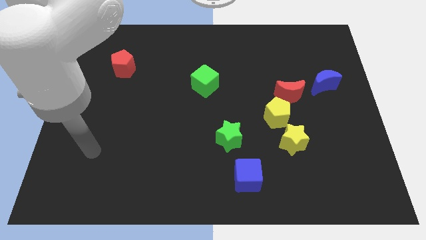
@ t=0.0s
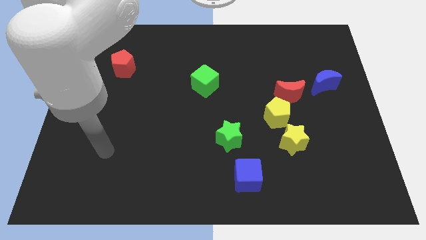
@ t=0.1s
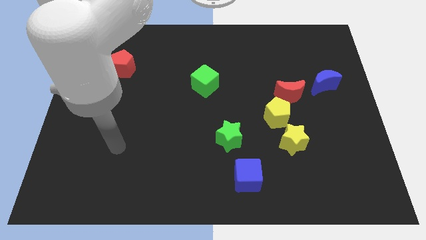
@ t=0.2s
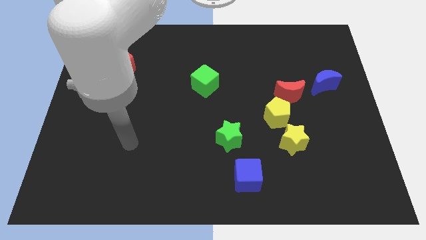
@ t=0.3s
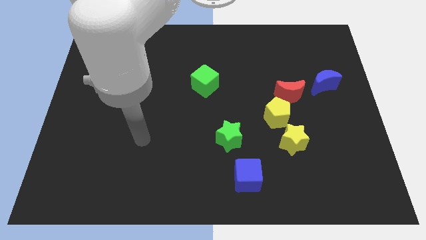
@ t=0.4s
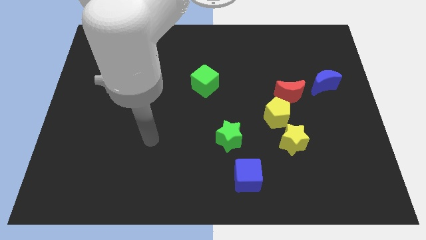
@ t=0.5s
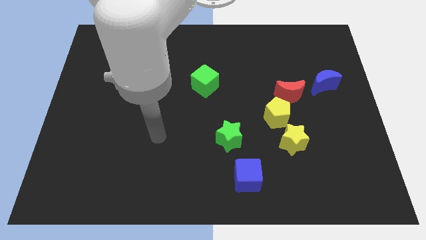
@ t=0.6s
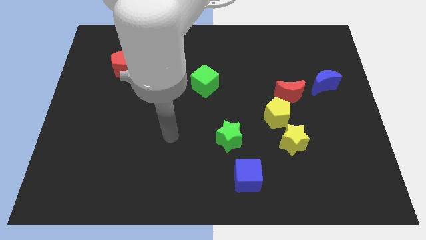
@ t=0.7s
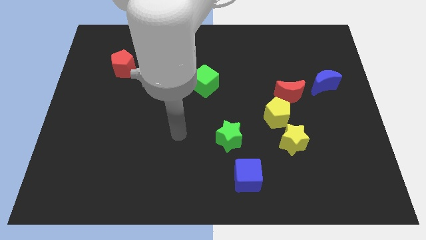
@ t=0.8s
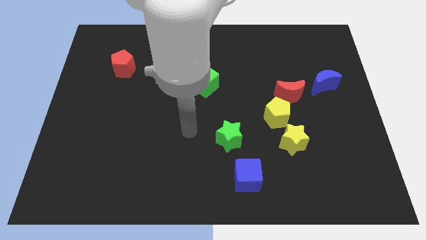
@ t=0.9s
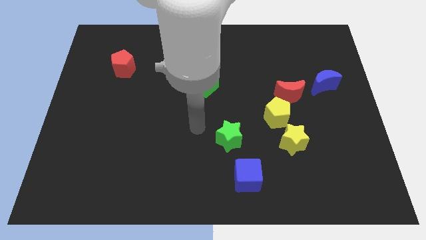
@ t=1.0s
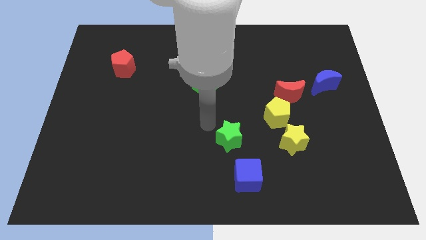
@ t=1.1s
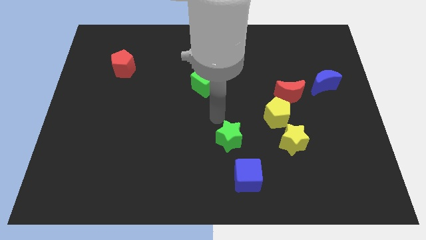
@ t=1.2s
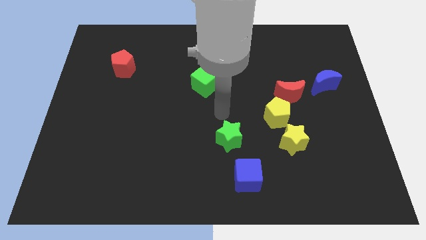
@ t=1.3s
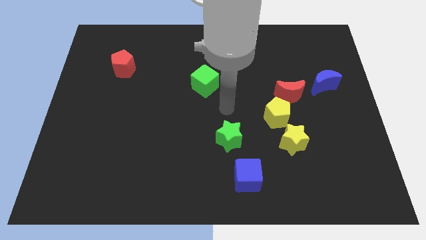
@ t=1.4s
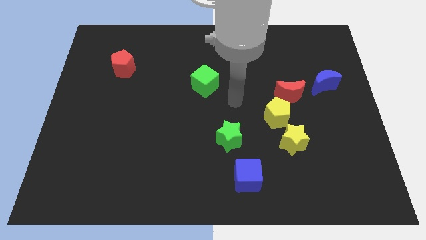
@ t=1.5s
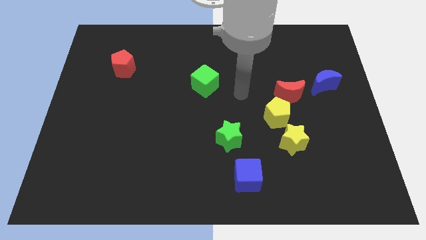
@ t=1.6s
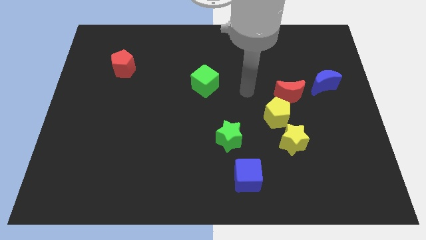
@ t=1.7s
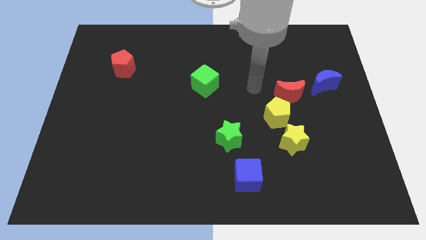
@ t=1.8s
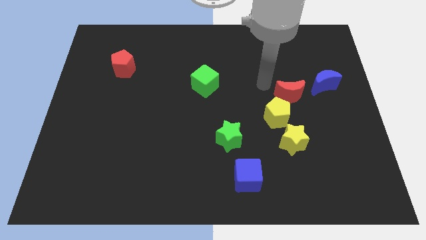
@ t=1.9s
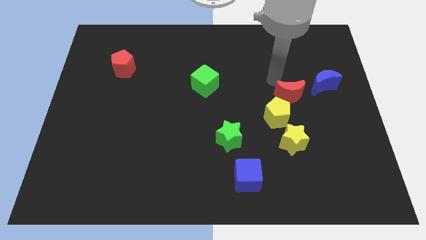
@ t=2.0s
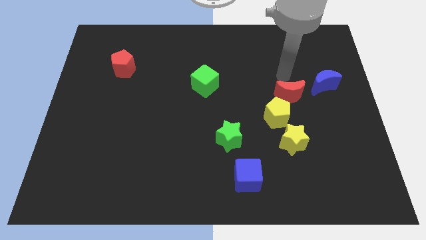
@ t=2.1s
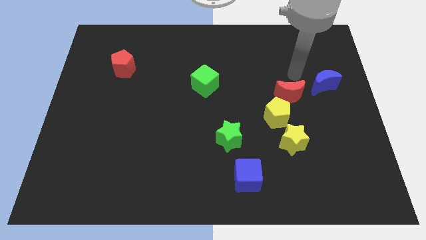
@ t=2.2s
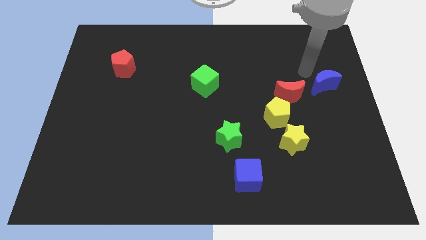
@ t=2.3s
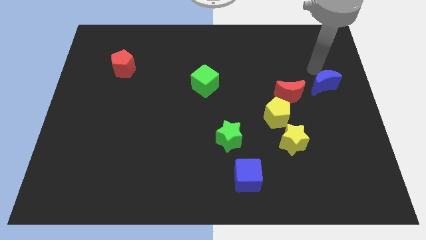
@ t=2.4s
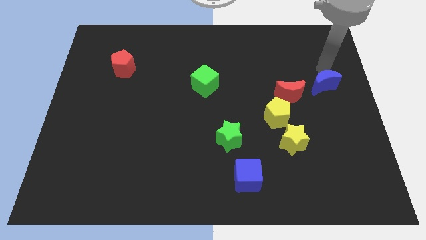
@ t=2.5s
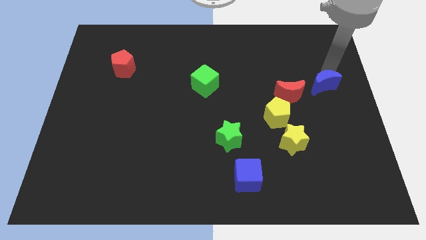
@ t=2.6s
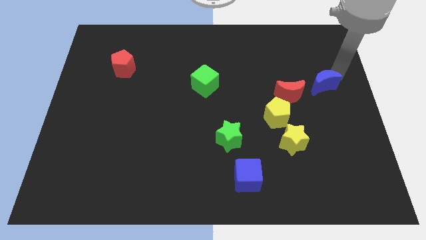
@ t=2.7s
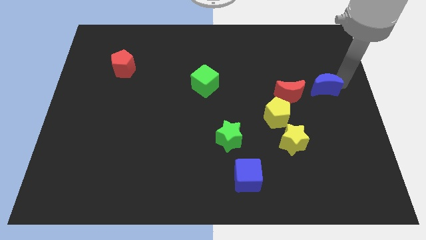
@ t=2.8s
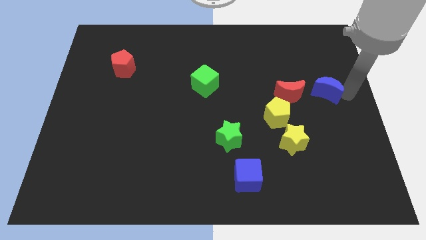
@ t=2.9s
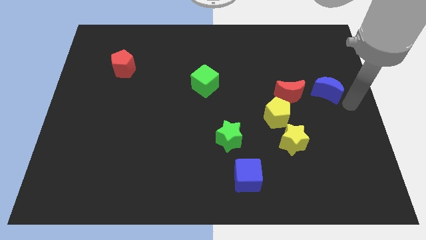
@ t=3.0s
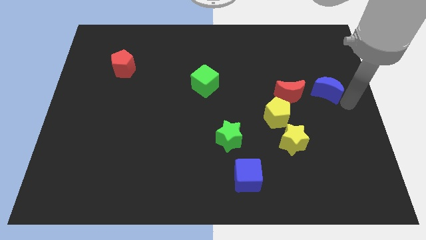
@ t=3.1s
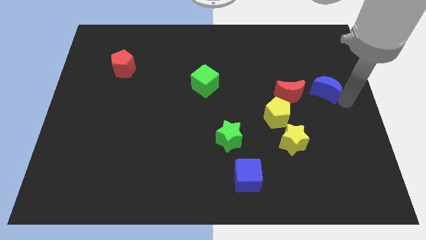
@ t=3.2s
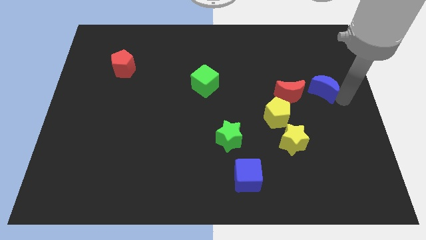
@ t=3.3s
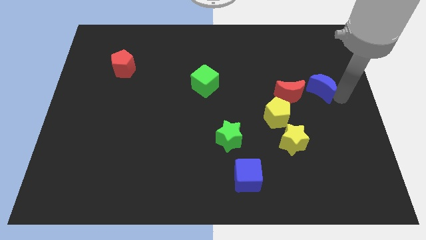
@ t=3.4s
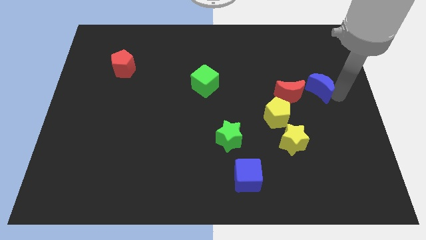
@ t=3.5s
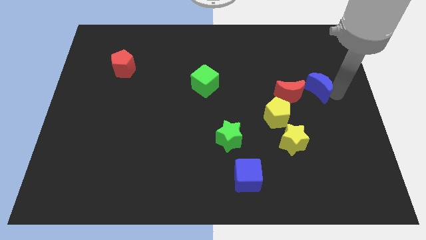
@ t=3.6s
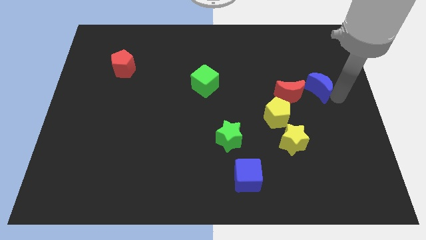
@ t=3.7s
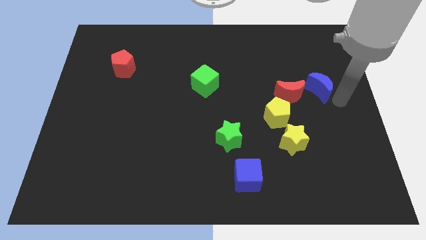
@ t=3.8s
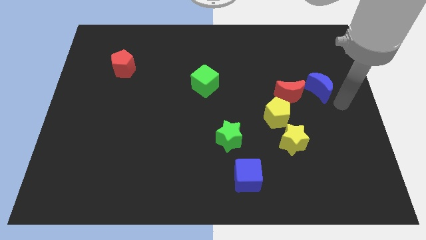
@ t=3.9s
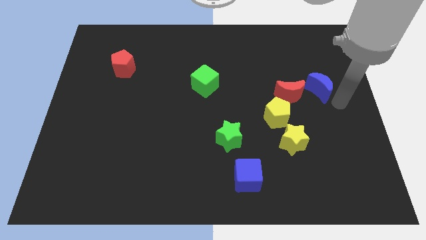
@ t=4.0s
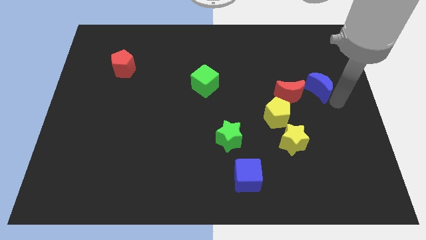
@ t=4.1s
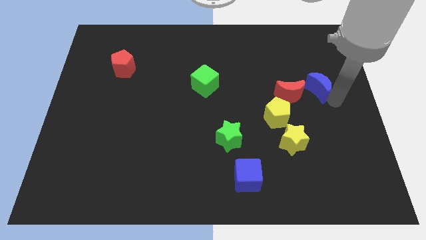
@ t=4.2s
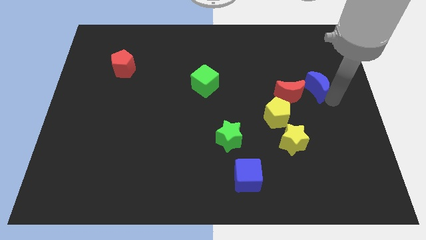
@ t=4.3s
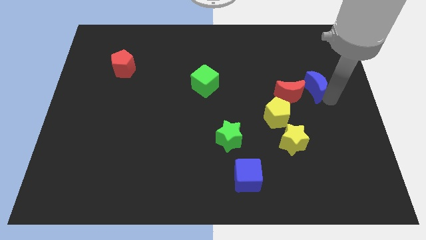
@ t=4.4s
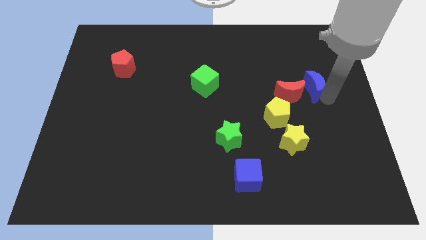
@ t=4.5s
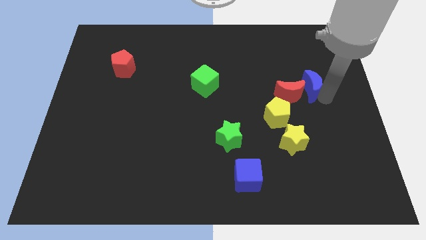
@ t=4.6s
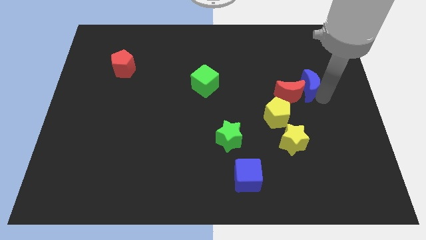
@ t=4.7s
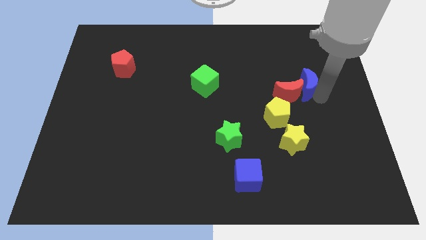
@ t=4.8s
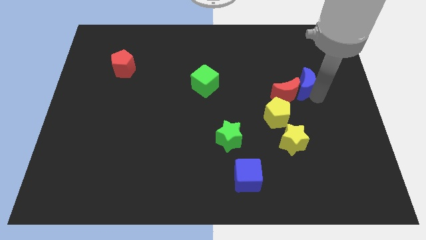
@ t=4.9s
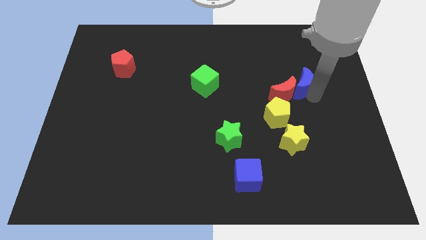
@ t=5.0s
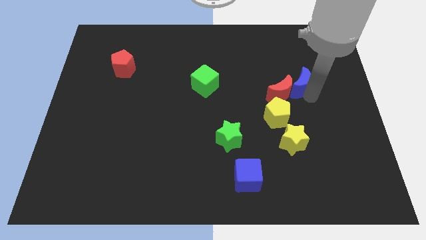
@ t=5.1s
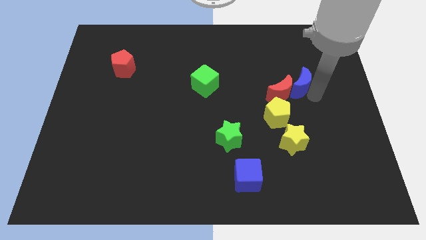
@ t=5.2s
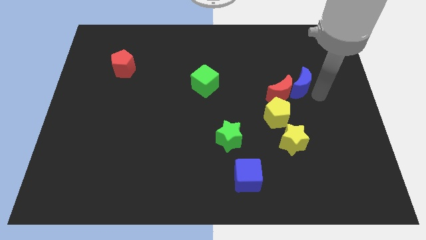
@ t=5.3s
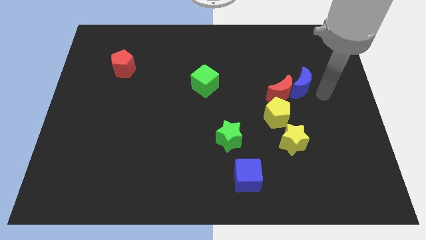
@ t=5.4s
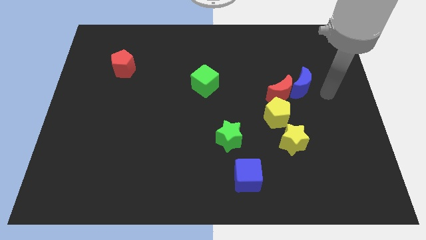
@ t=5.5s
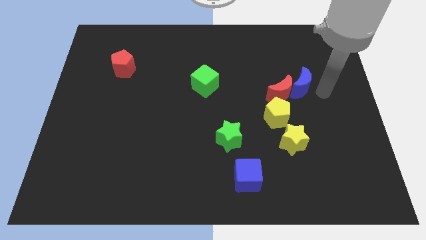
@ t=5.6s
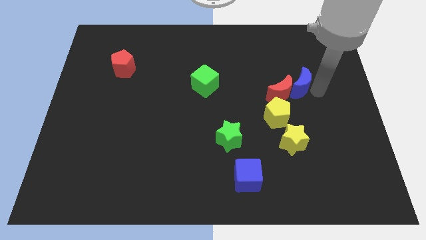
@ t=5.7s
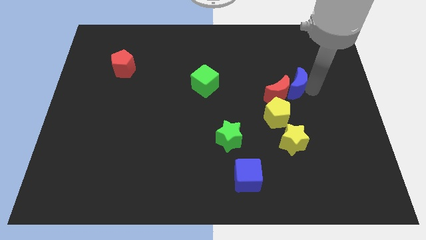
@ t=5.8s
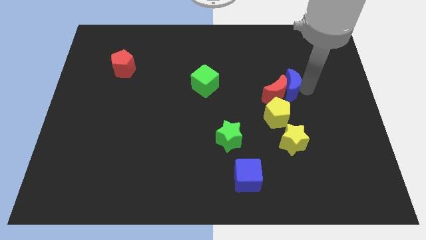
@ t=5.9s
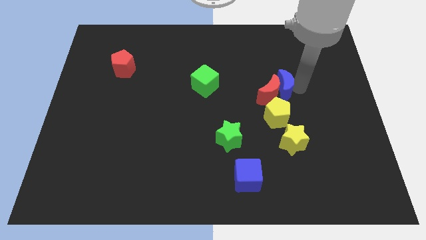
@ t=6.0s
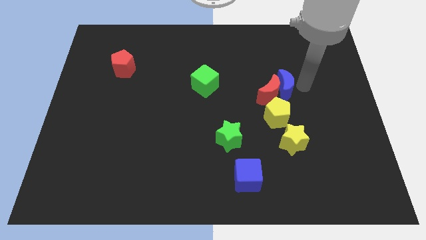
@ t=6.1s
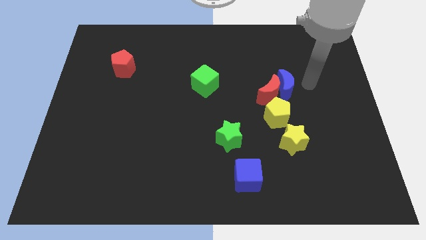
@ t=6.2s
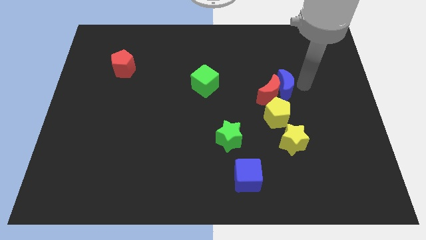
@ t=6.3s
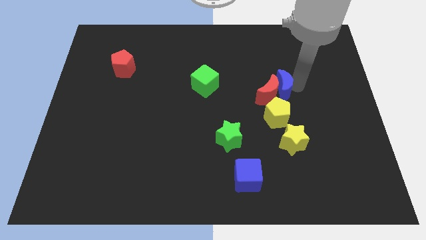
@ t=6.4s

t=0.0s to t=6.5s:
slide the blue moon a little downwards and then to the left

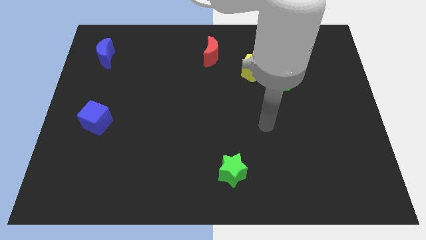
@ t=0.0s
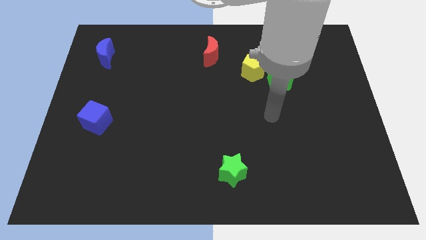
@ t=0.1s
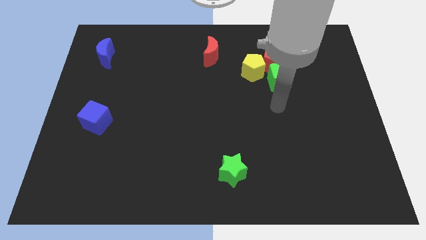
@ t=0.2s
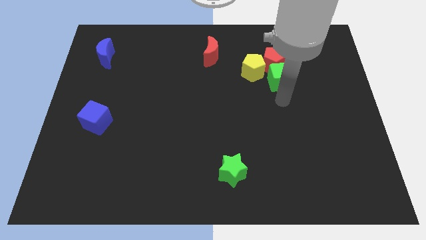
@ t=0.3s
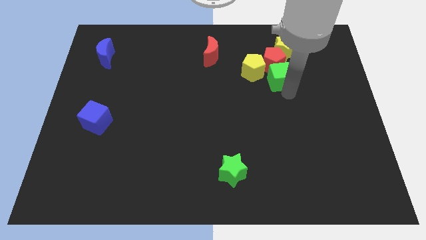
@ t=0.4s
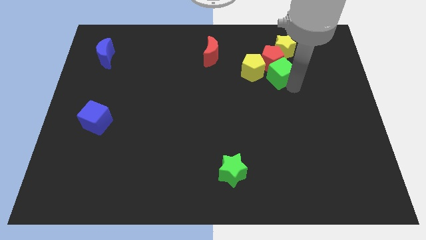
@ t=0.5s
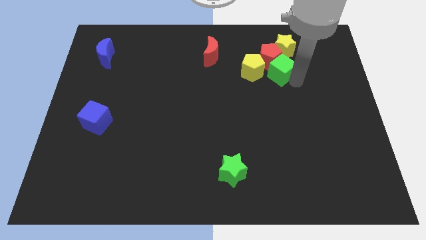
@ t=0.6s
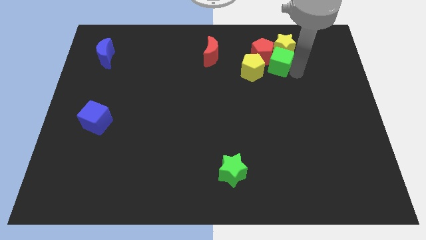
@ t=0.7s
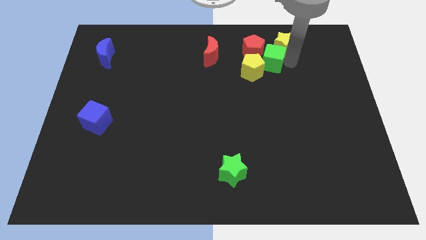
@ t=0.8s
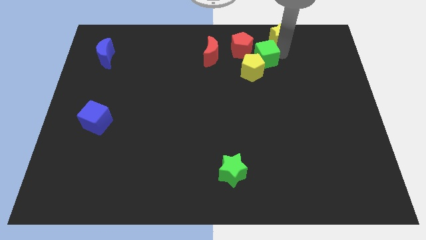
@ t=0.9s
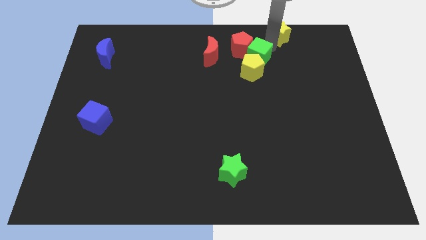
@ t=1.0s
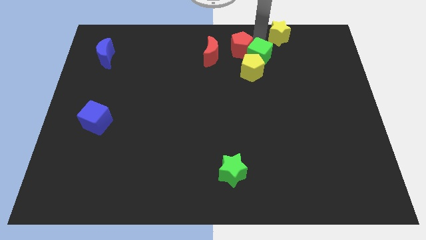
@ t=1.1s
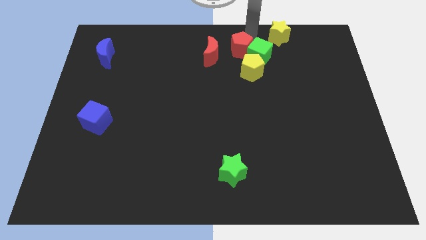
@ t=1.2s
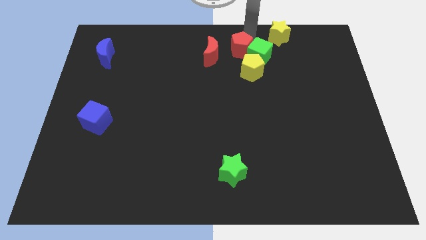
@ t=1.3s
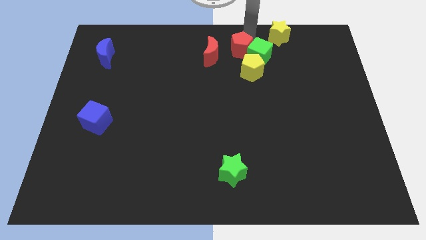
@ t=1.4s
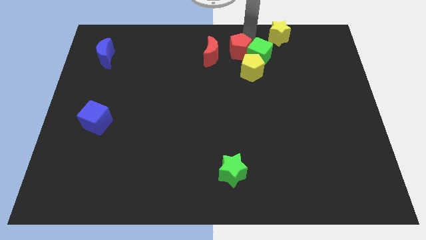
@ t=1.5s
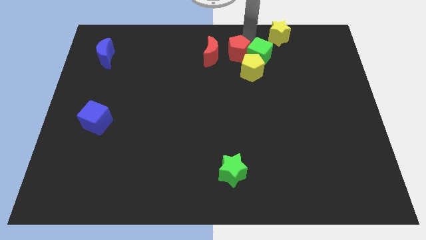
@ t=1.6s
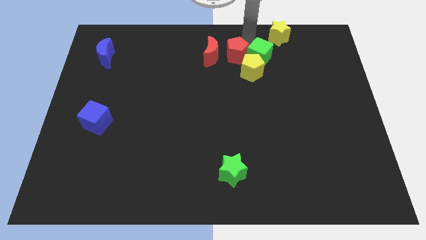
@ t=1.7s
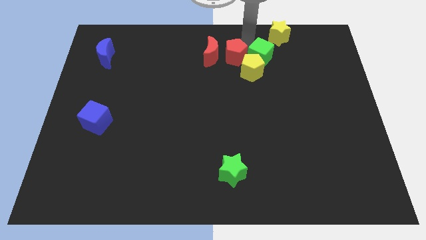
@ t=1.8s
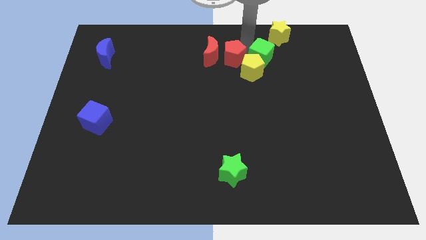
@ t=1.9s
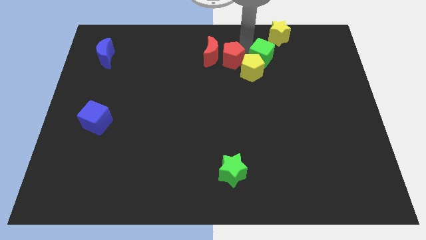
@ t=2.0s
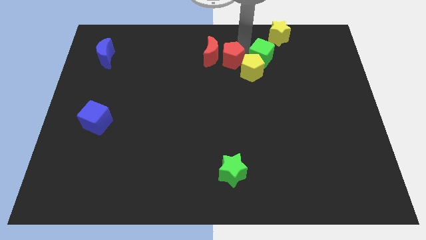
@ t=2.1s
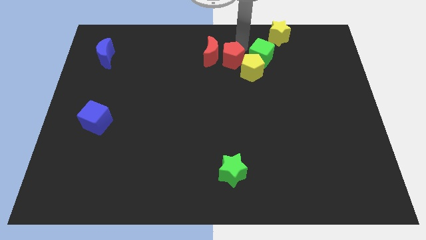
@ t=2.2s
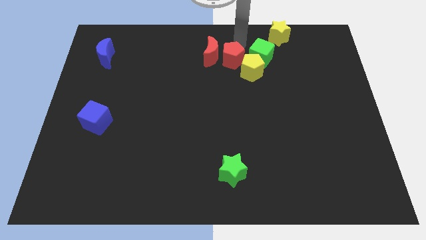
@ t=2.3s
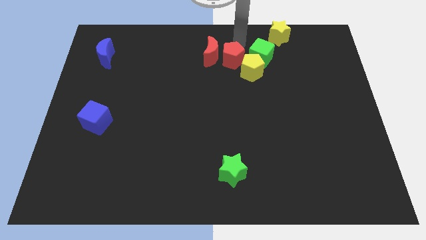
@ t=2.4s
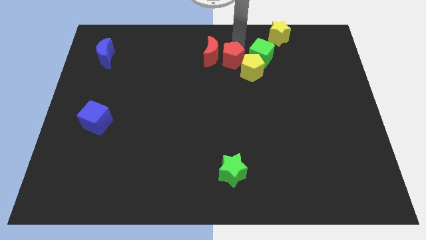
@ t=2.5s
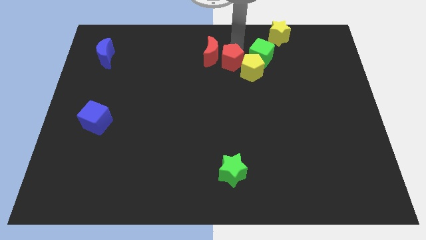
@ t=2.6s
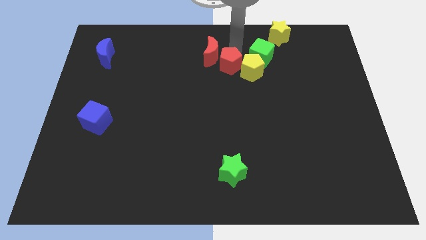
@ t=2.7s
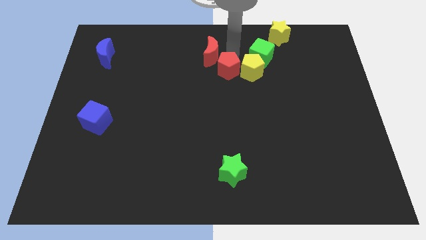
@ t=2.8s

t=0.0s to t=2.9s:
slightly push the red pentagon downwards and then to the left
